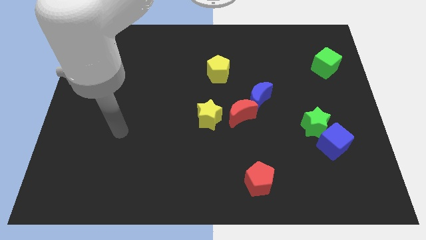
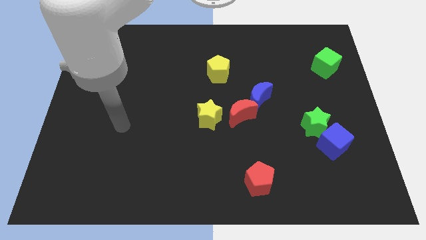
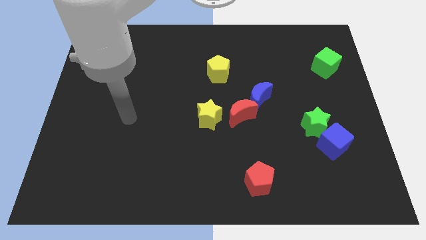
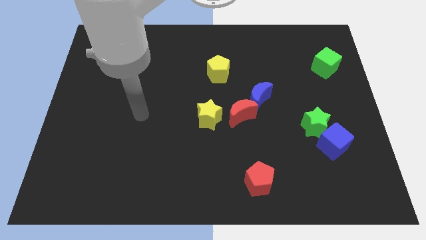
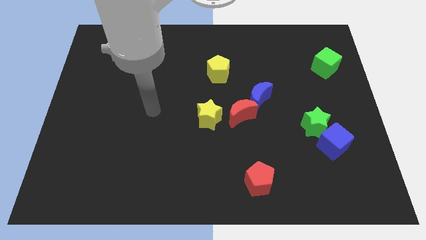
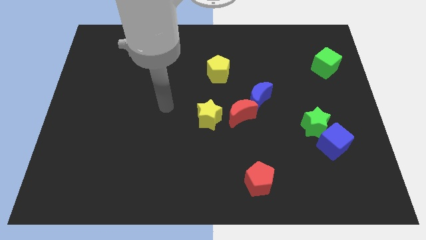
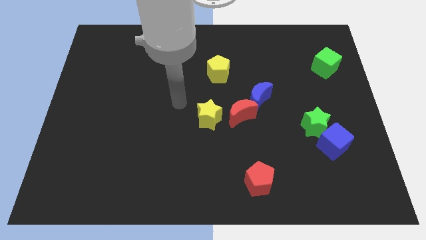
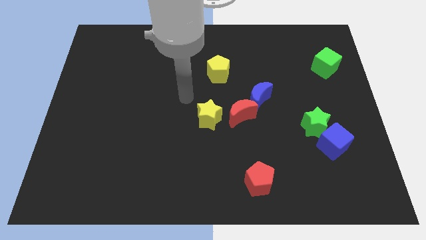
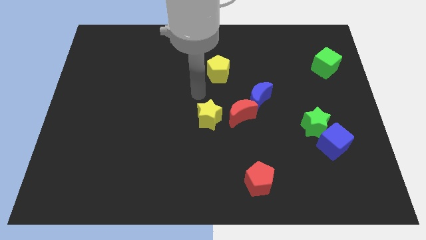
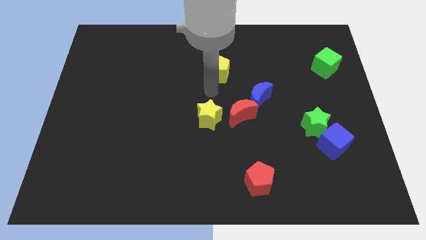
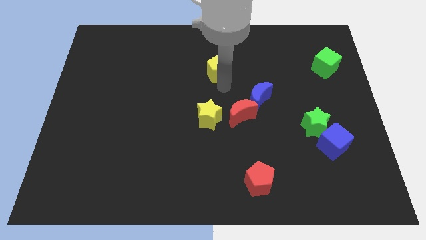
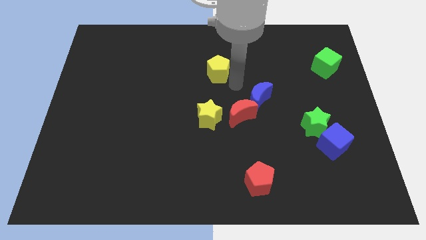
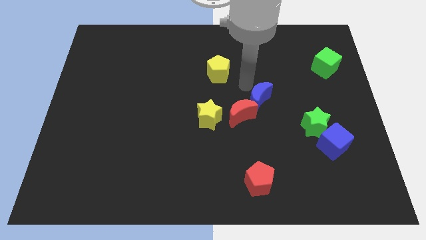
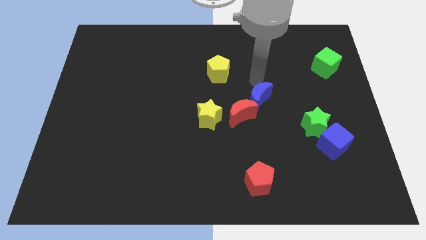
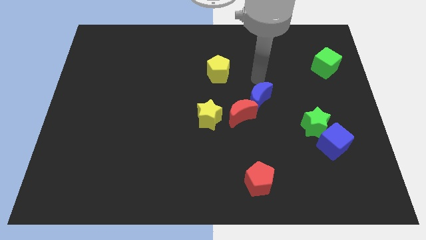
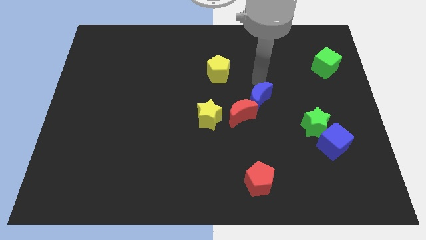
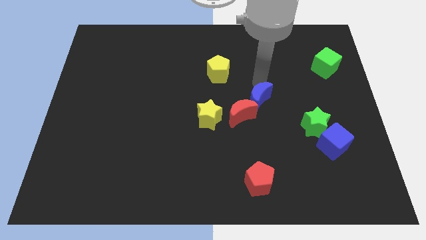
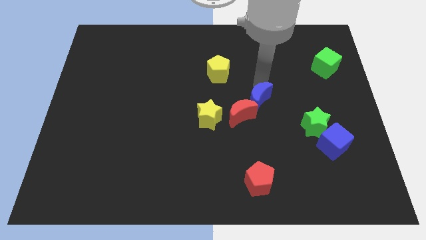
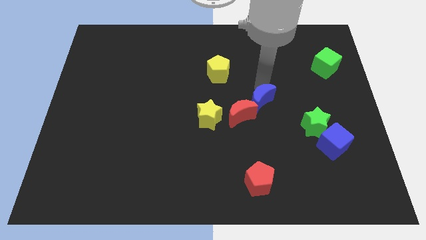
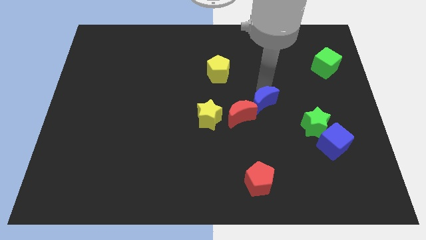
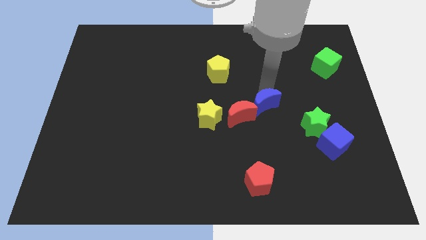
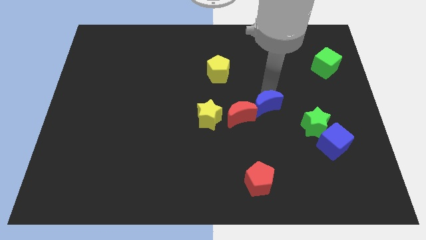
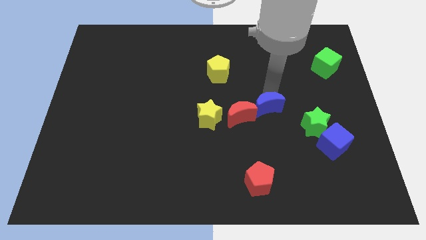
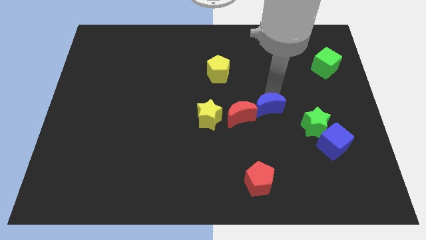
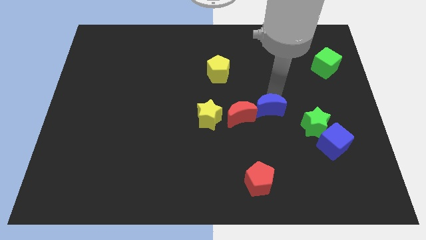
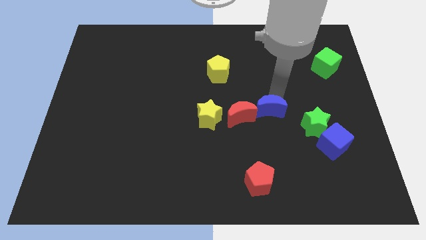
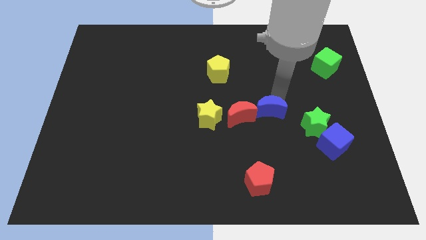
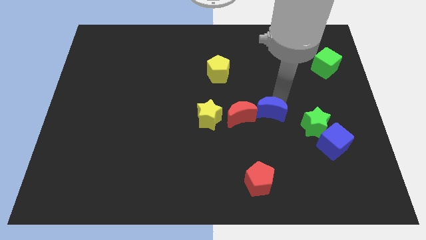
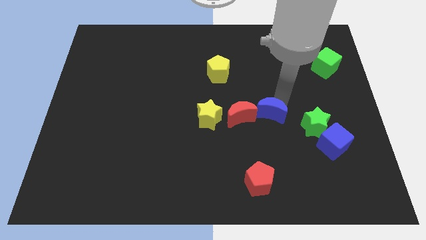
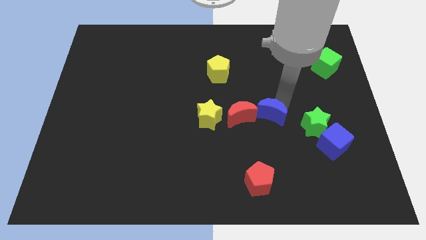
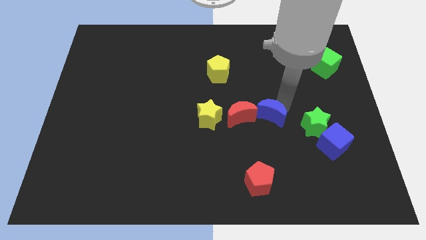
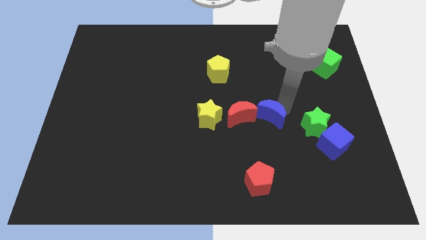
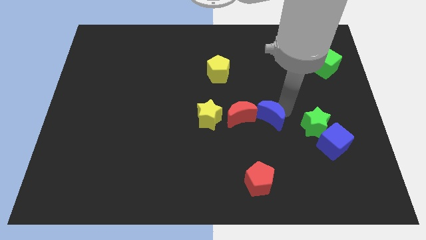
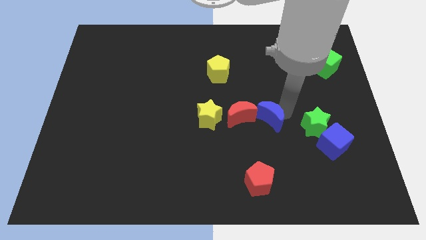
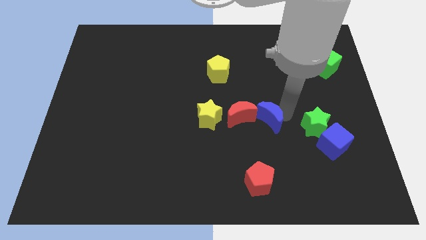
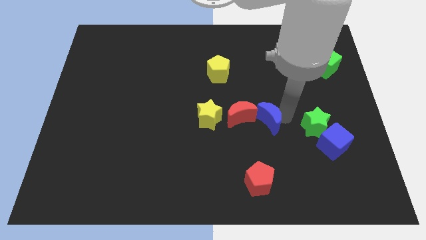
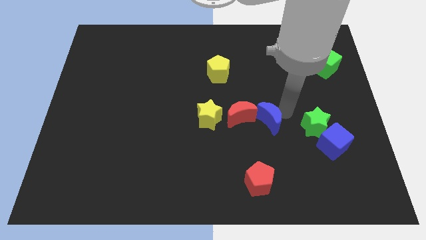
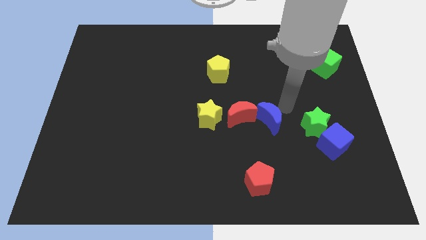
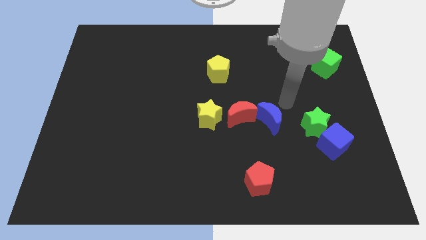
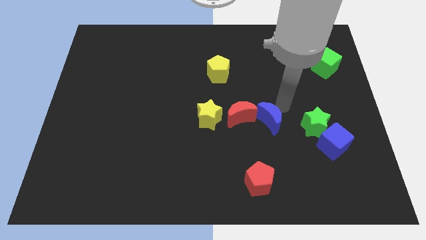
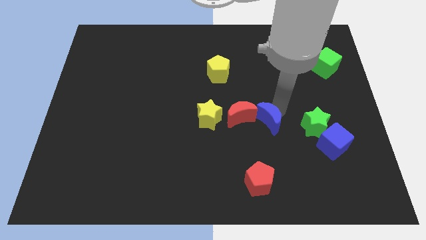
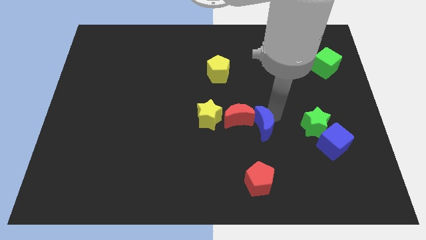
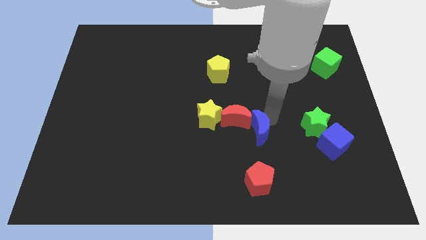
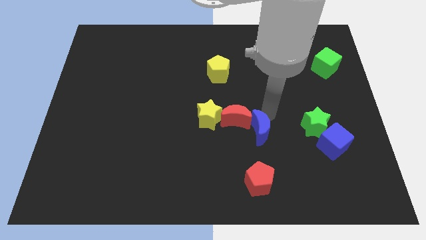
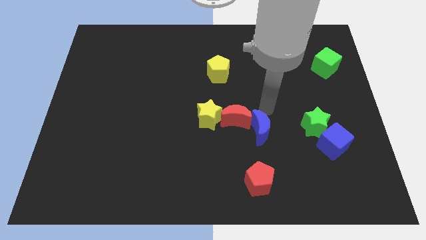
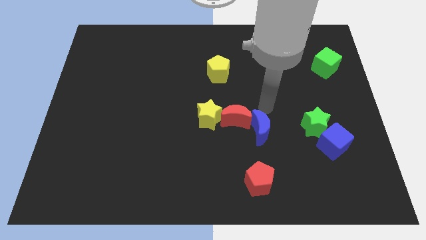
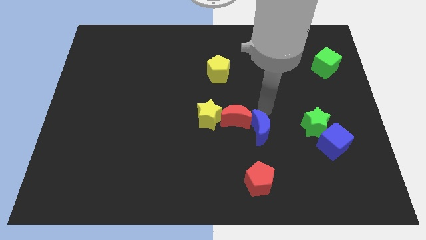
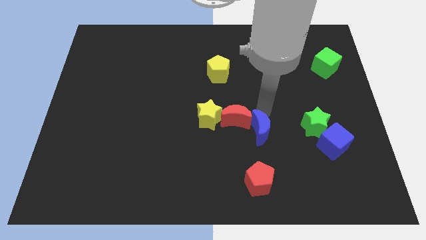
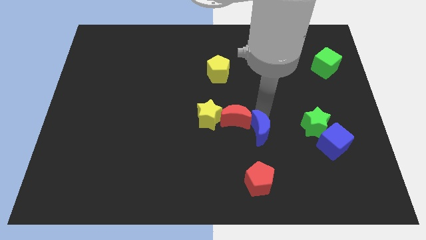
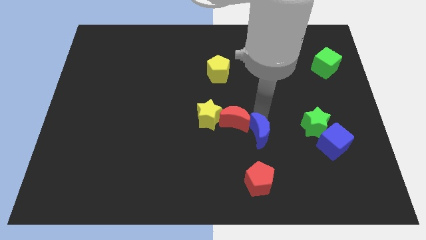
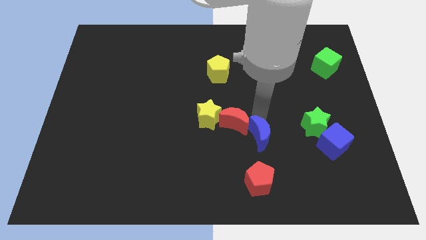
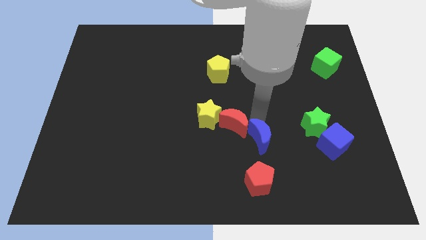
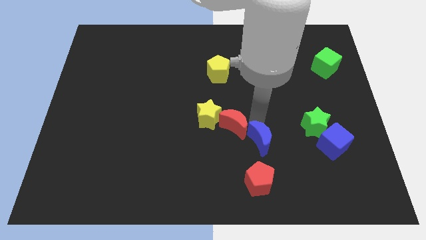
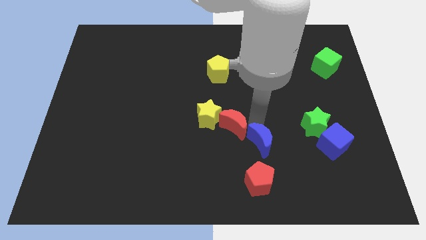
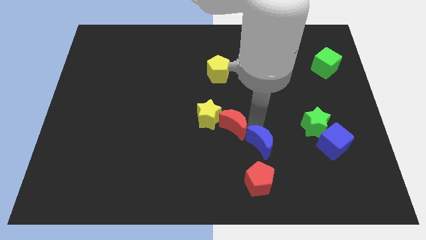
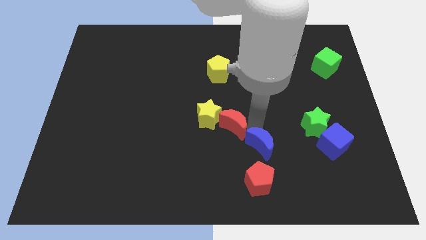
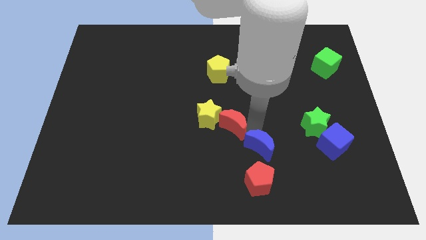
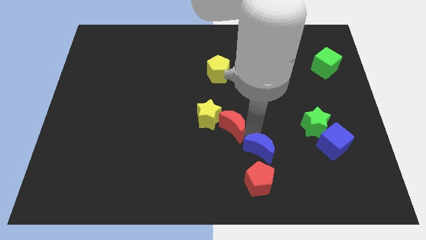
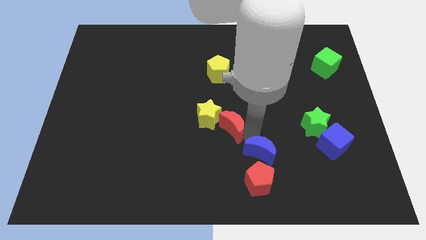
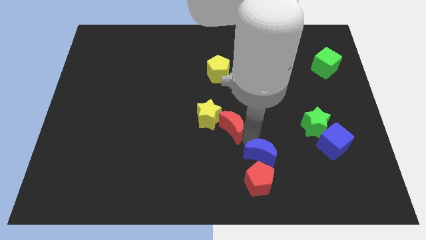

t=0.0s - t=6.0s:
push the blue moon to the red pentagon
